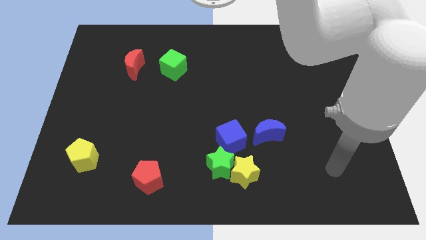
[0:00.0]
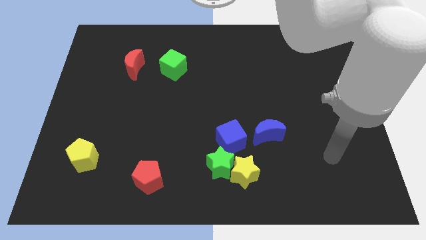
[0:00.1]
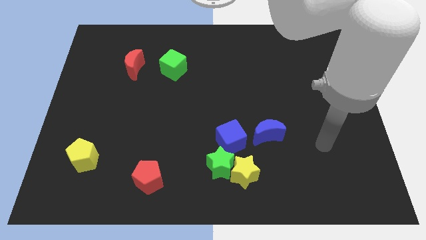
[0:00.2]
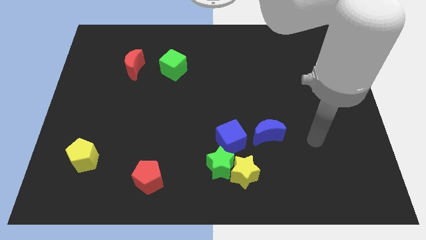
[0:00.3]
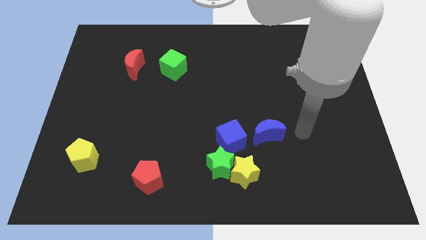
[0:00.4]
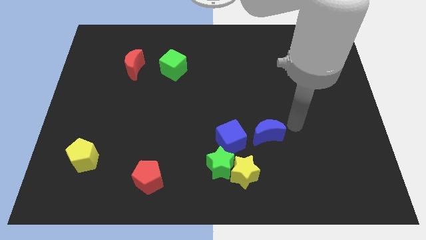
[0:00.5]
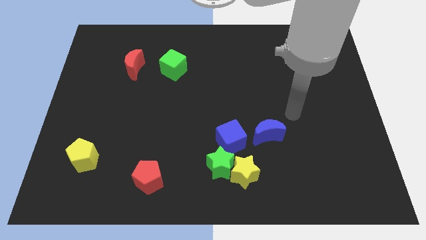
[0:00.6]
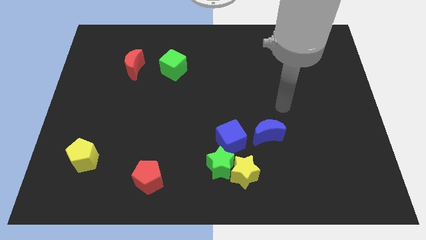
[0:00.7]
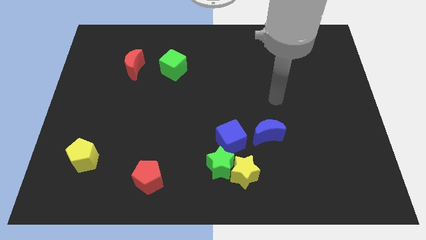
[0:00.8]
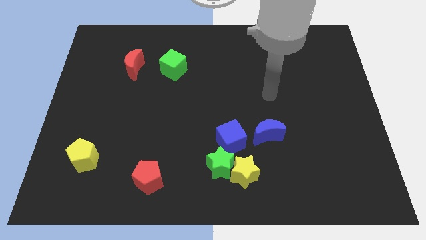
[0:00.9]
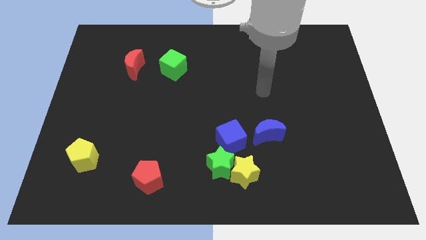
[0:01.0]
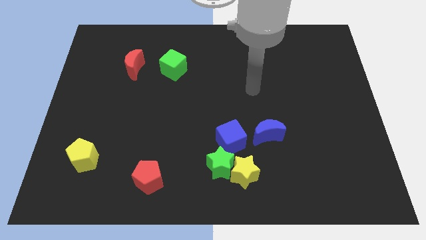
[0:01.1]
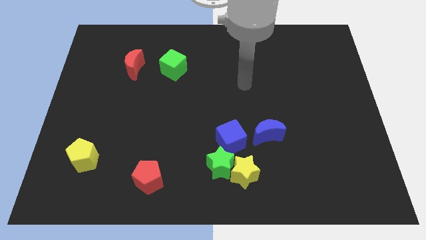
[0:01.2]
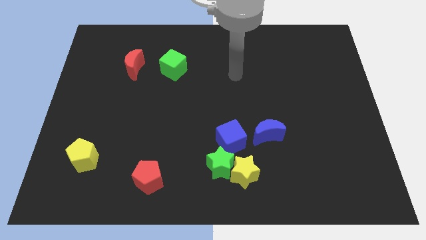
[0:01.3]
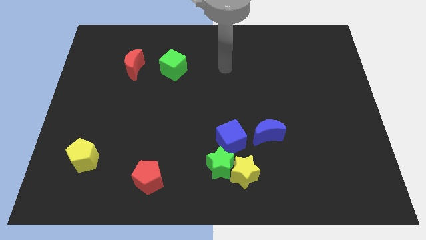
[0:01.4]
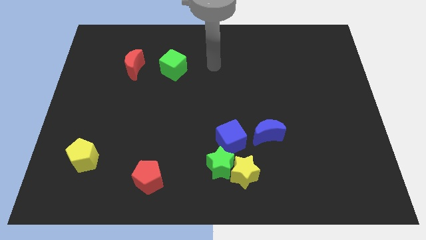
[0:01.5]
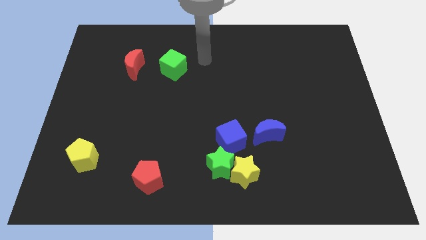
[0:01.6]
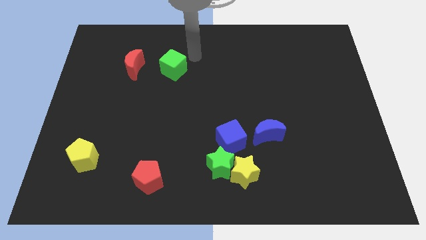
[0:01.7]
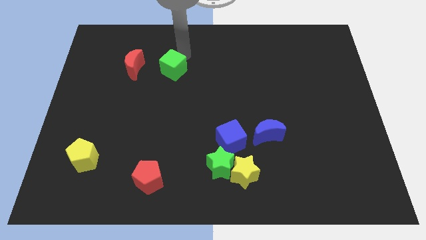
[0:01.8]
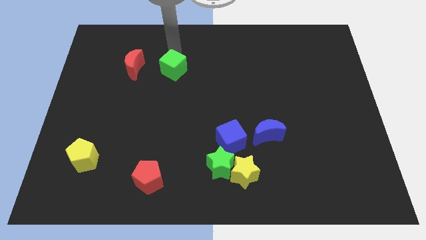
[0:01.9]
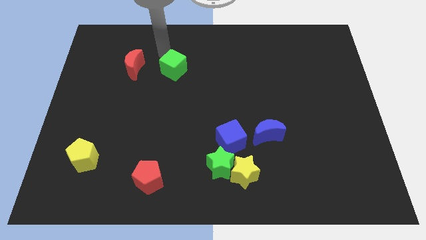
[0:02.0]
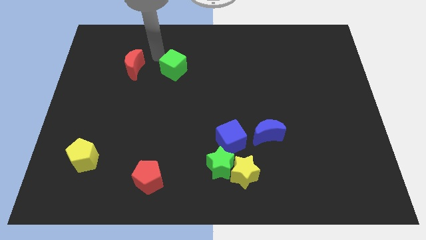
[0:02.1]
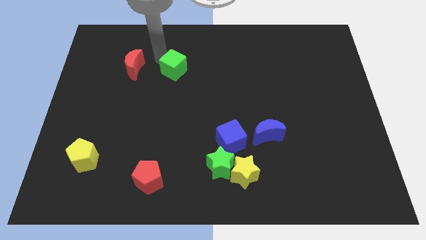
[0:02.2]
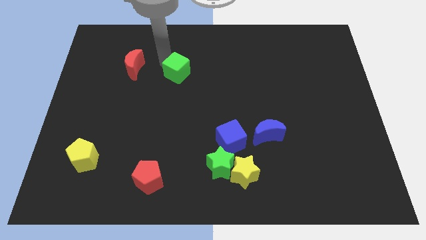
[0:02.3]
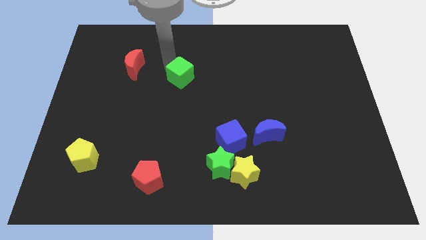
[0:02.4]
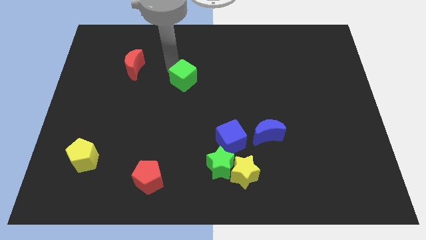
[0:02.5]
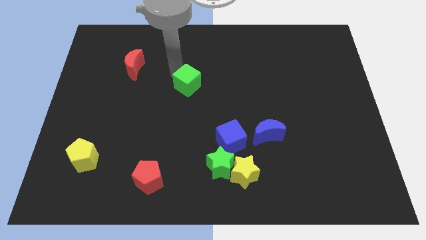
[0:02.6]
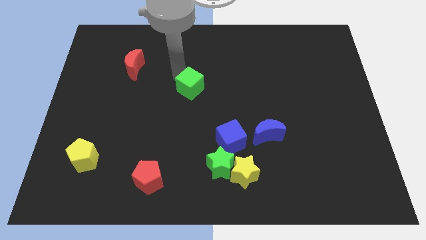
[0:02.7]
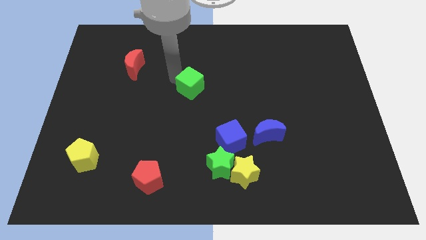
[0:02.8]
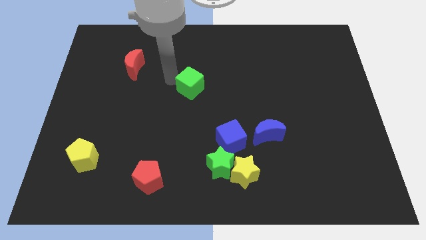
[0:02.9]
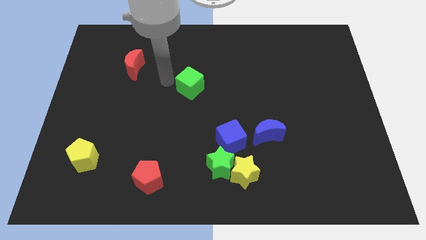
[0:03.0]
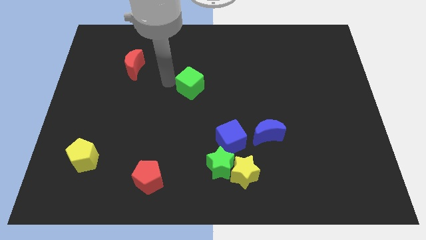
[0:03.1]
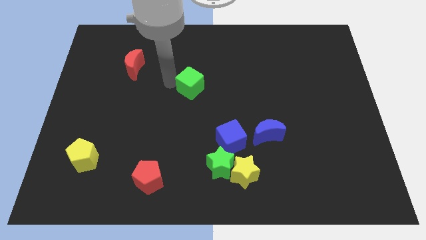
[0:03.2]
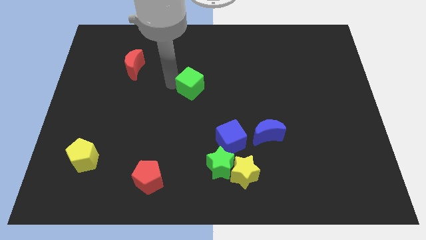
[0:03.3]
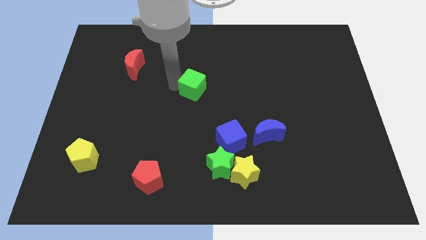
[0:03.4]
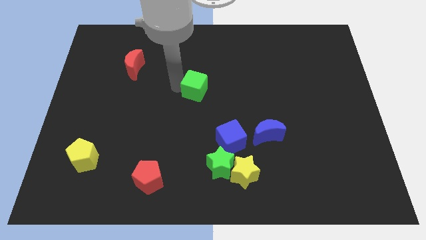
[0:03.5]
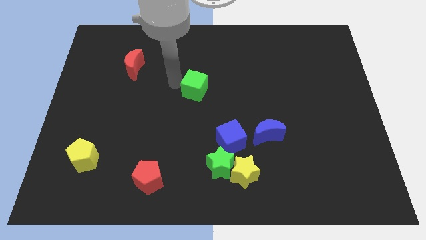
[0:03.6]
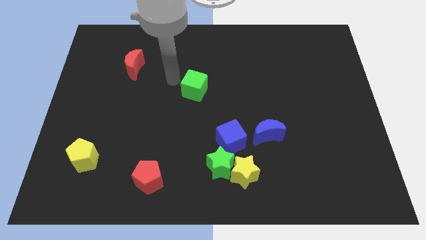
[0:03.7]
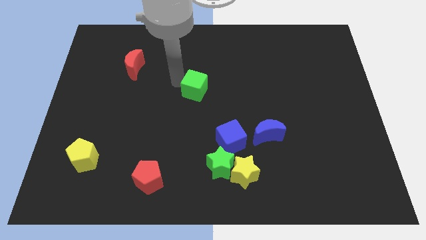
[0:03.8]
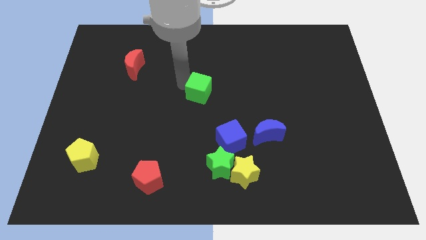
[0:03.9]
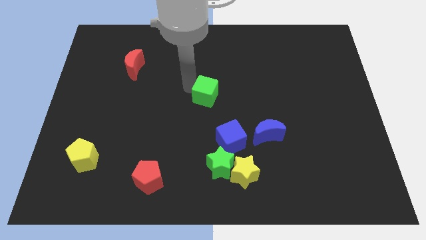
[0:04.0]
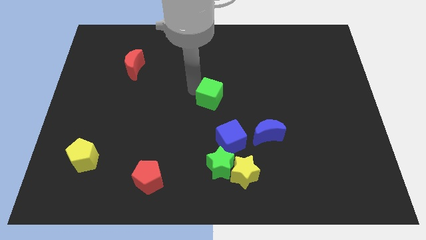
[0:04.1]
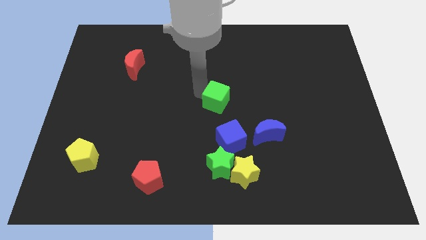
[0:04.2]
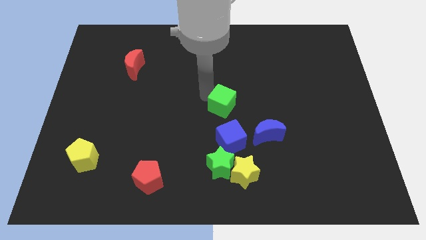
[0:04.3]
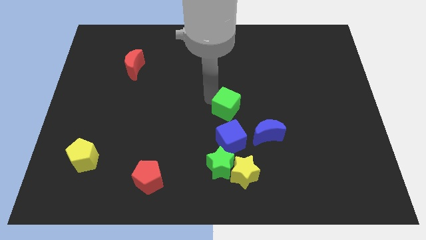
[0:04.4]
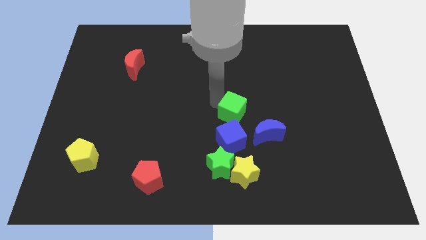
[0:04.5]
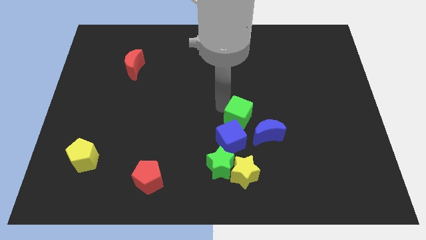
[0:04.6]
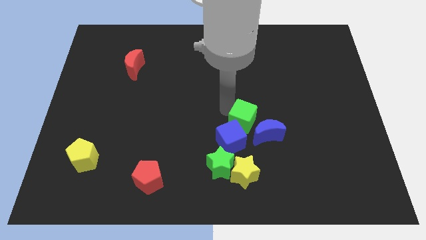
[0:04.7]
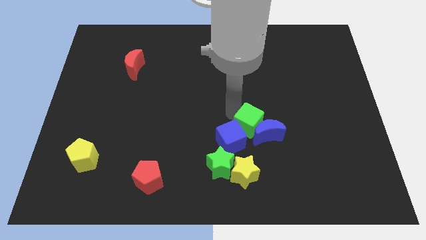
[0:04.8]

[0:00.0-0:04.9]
slide the green cube close to the blue moon

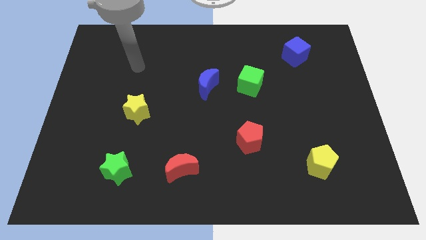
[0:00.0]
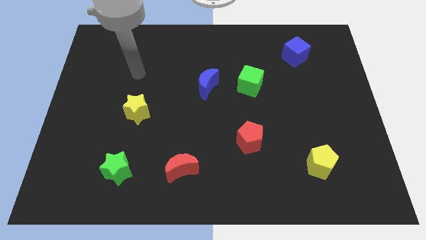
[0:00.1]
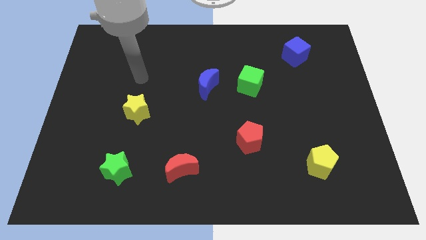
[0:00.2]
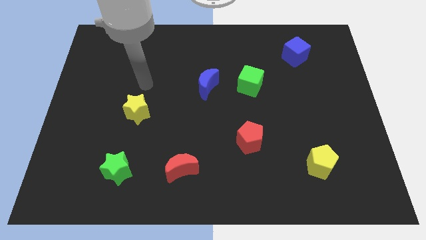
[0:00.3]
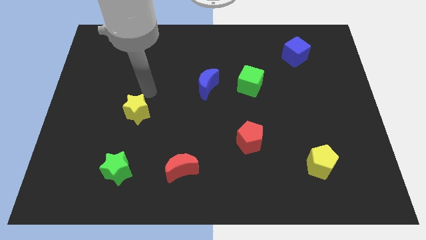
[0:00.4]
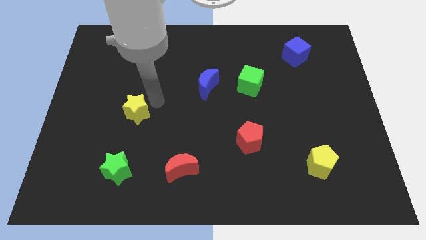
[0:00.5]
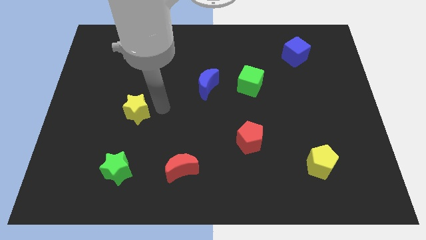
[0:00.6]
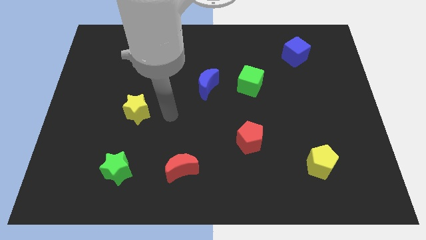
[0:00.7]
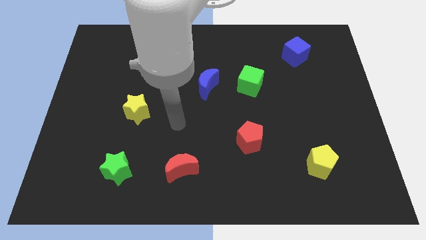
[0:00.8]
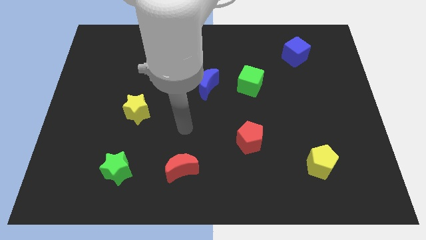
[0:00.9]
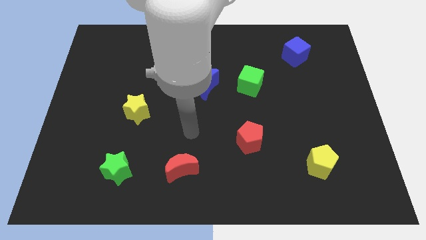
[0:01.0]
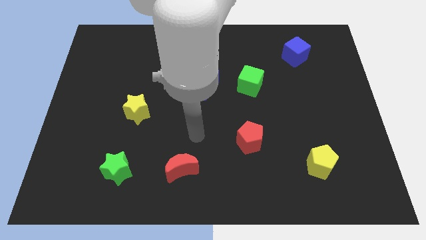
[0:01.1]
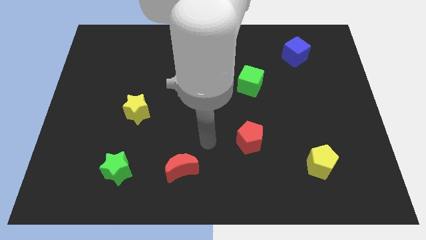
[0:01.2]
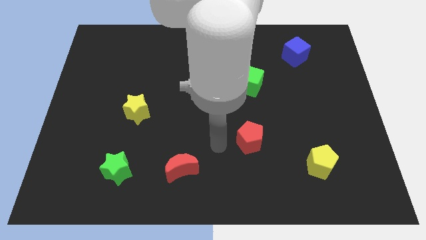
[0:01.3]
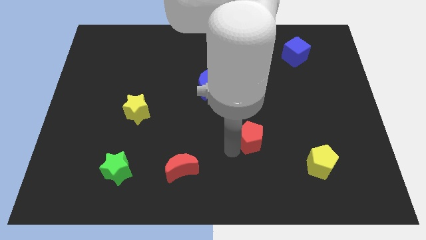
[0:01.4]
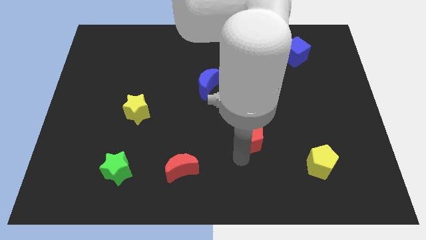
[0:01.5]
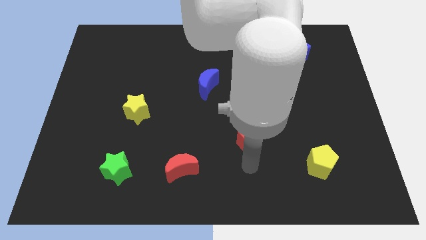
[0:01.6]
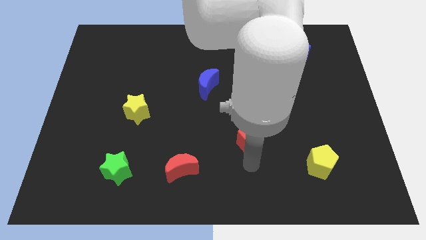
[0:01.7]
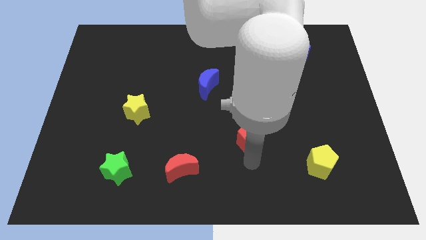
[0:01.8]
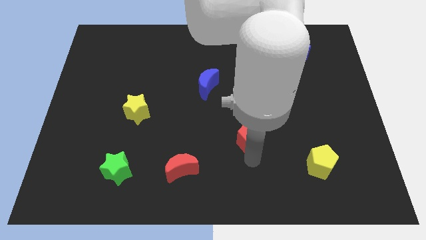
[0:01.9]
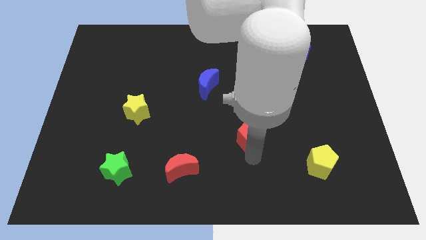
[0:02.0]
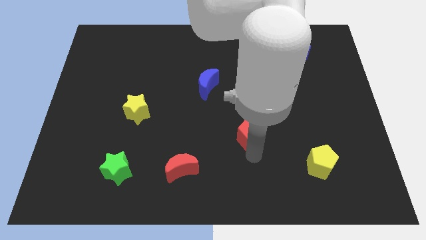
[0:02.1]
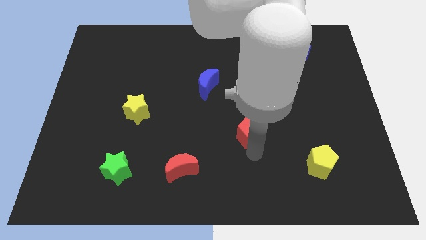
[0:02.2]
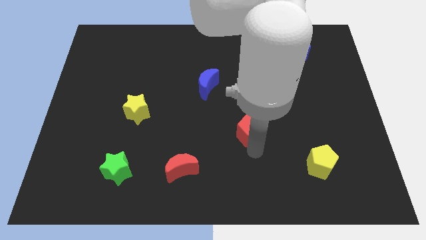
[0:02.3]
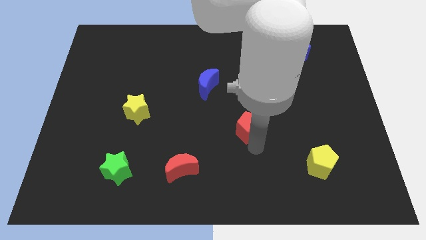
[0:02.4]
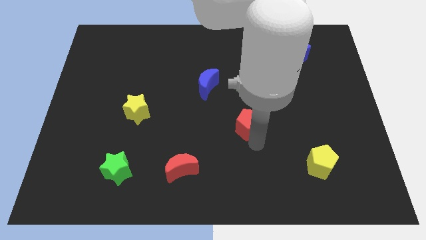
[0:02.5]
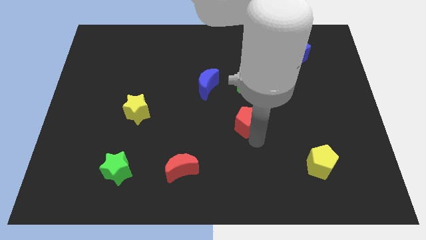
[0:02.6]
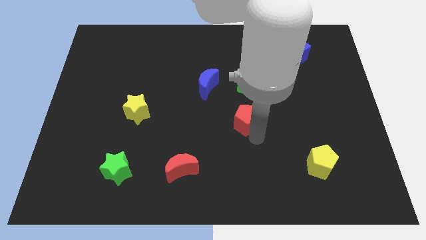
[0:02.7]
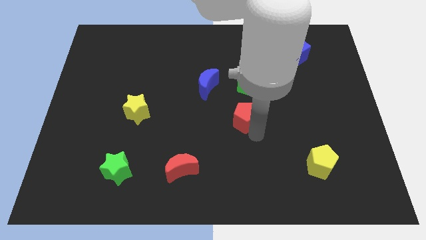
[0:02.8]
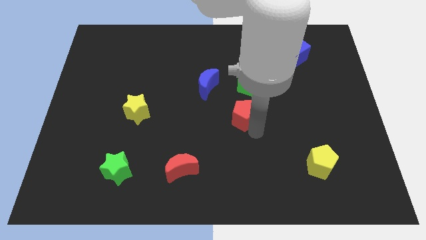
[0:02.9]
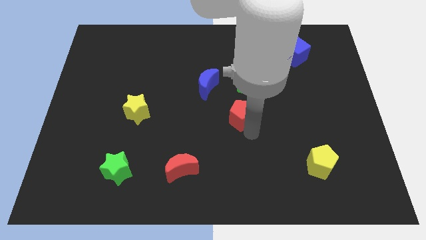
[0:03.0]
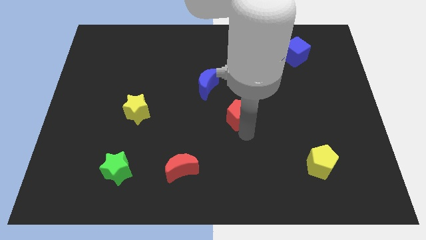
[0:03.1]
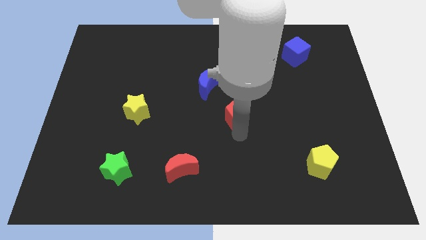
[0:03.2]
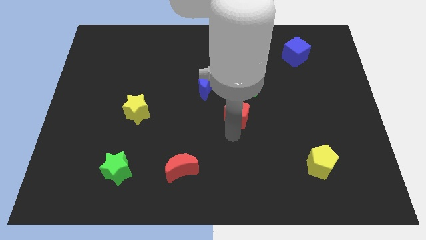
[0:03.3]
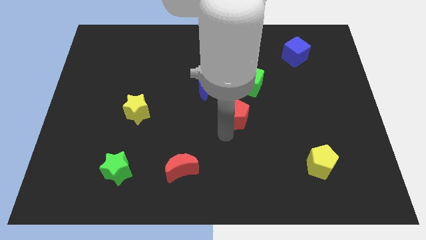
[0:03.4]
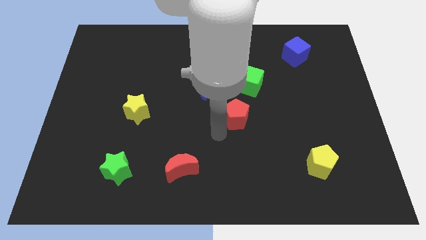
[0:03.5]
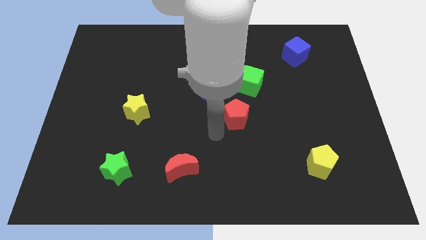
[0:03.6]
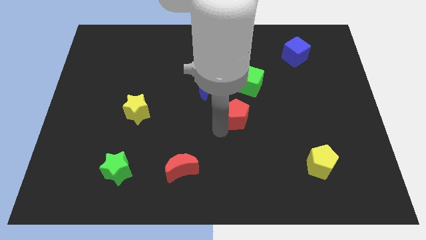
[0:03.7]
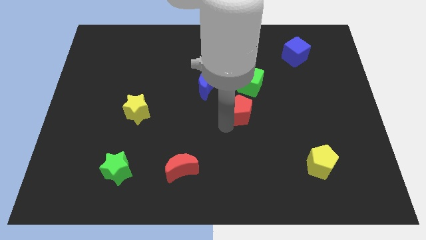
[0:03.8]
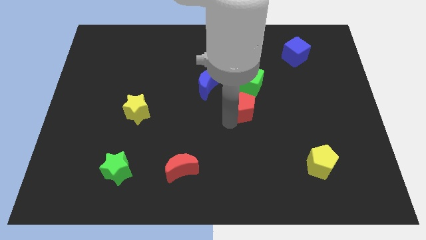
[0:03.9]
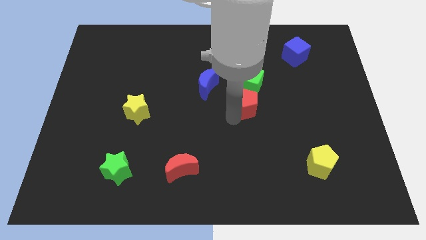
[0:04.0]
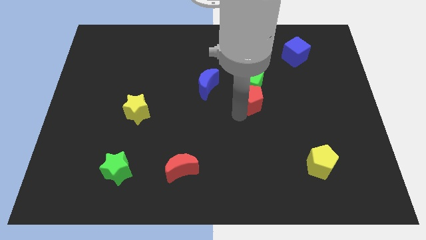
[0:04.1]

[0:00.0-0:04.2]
slide the red pentagon towards the green cube
